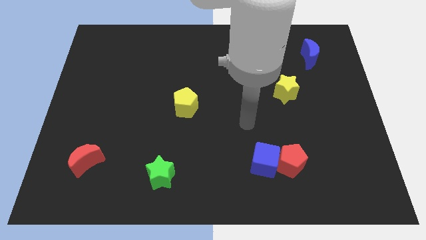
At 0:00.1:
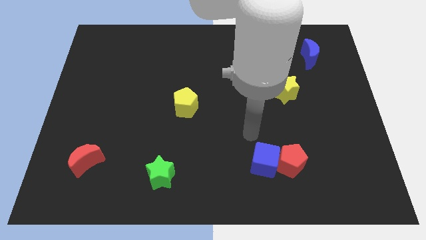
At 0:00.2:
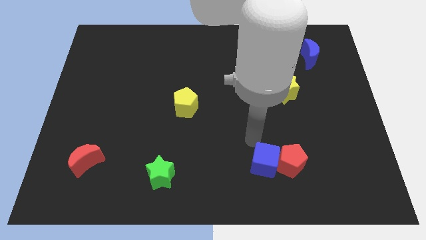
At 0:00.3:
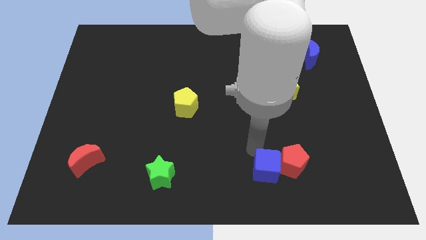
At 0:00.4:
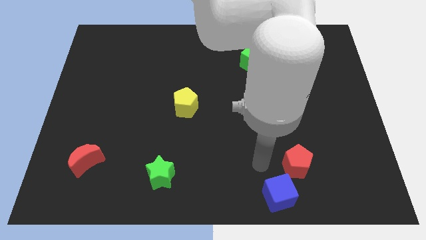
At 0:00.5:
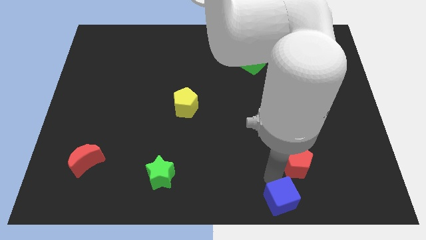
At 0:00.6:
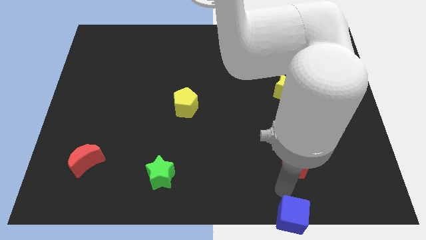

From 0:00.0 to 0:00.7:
pull the red pentagon apart from the blue cube

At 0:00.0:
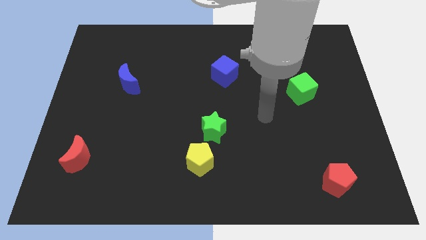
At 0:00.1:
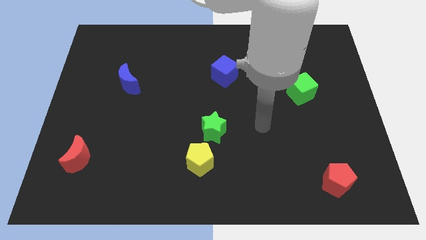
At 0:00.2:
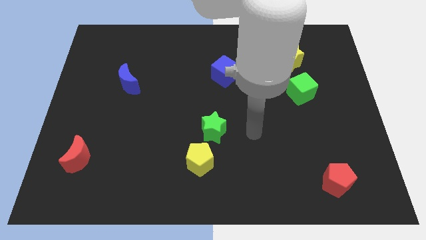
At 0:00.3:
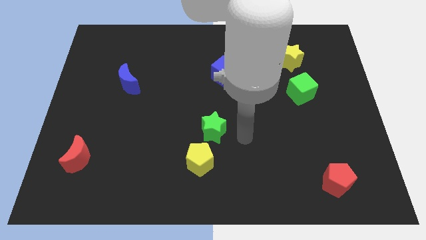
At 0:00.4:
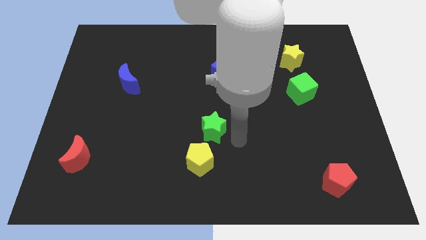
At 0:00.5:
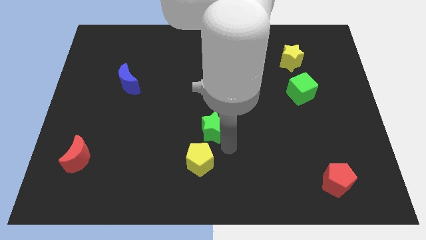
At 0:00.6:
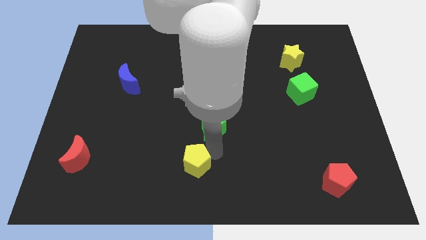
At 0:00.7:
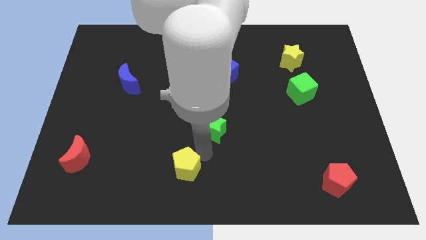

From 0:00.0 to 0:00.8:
separate the green star from the yellow pentagon

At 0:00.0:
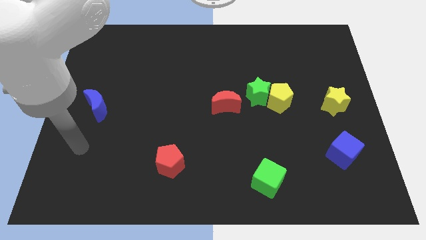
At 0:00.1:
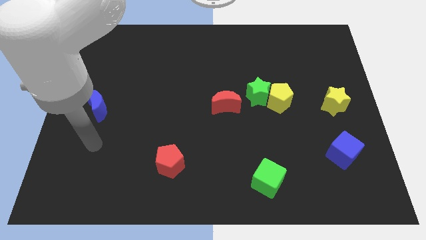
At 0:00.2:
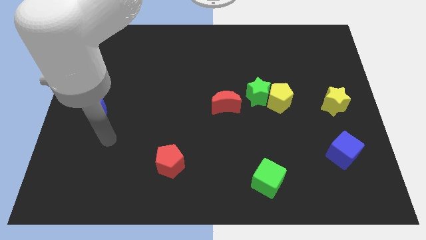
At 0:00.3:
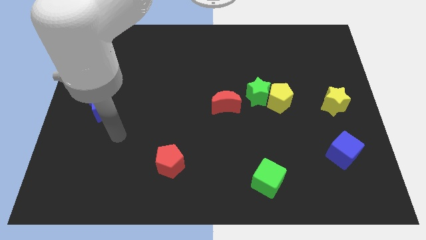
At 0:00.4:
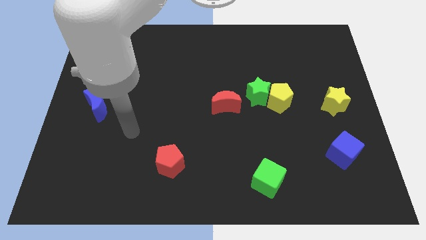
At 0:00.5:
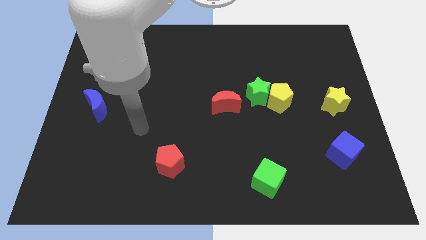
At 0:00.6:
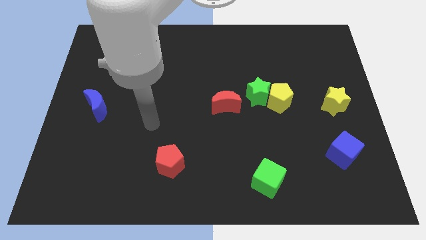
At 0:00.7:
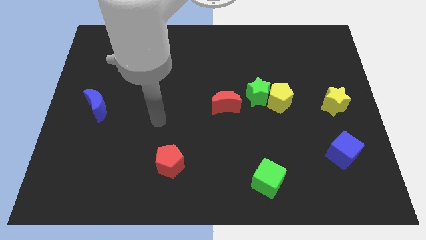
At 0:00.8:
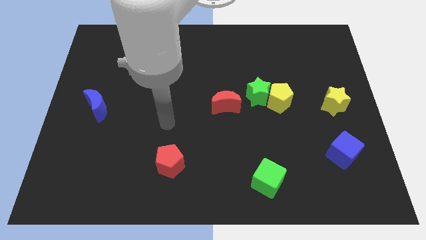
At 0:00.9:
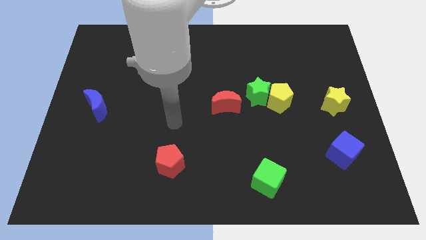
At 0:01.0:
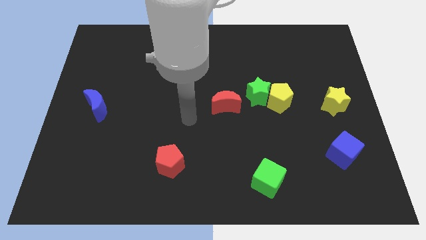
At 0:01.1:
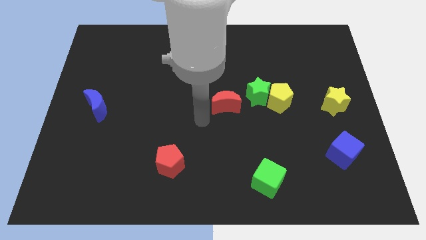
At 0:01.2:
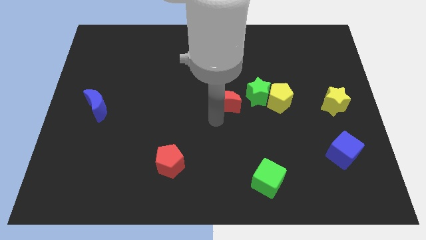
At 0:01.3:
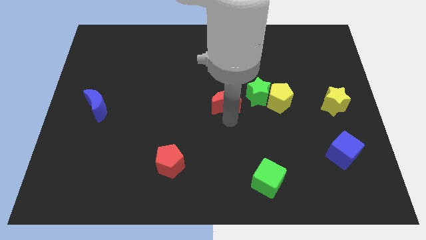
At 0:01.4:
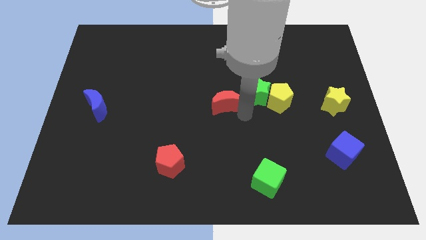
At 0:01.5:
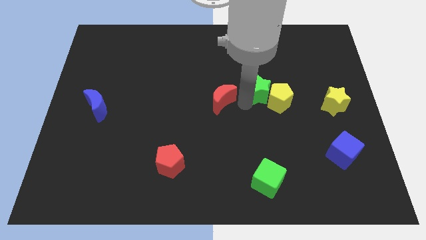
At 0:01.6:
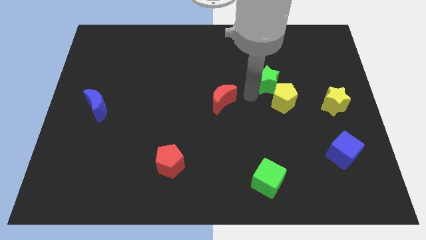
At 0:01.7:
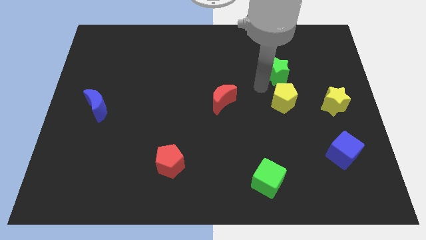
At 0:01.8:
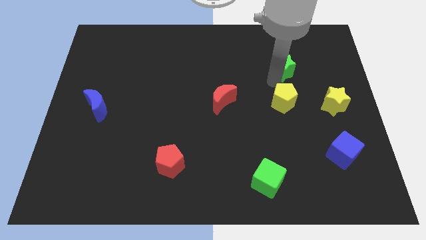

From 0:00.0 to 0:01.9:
separate the yellow pentagon from the green star

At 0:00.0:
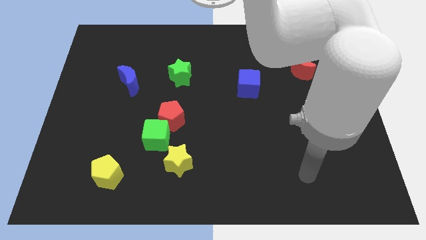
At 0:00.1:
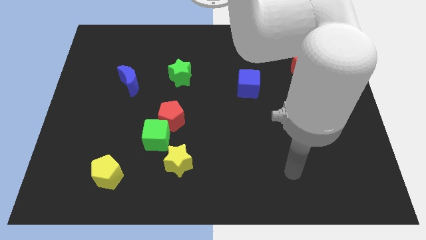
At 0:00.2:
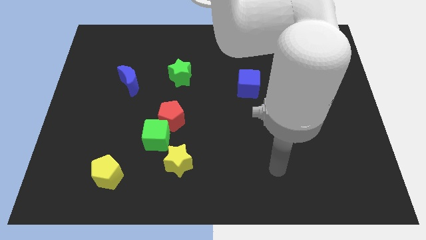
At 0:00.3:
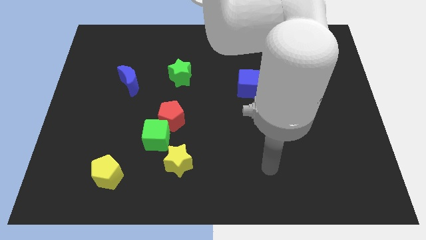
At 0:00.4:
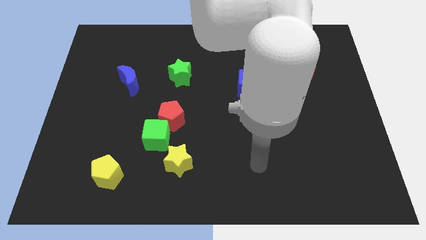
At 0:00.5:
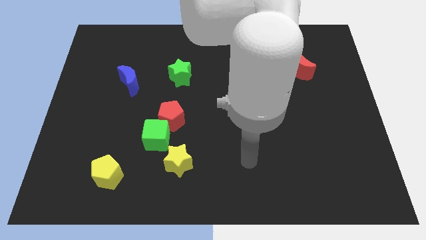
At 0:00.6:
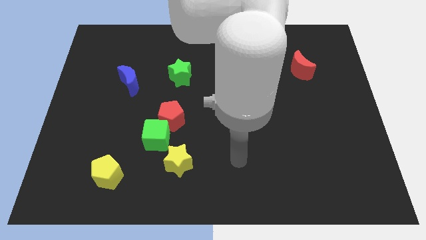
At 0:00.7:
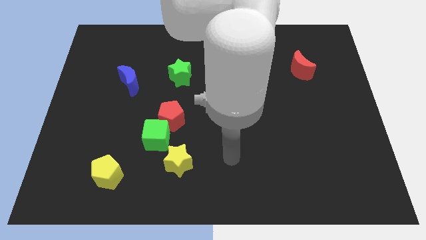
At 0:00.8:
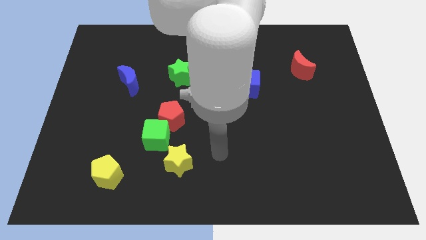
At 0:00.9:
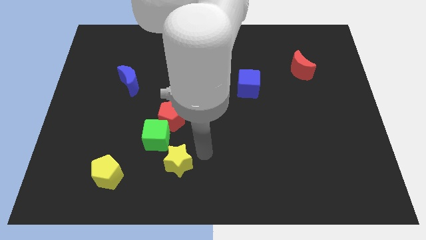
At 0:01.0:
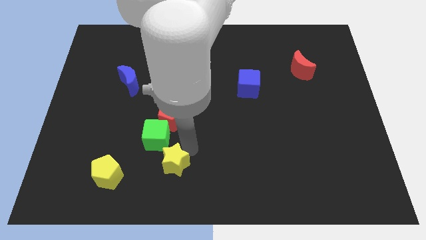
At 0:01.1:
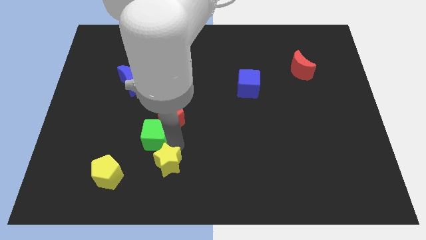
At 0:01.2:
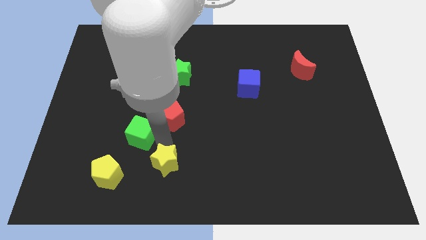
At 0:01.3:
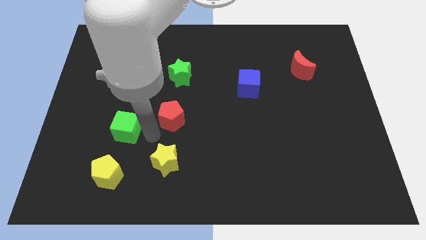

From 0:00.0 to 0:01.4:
separate the red pentagon from the green cube

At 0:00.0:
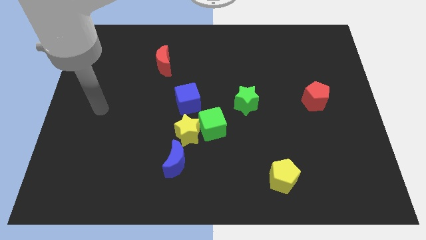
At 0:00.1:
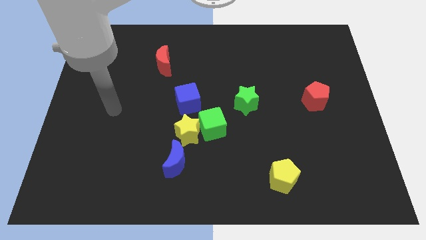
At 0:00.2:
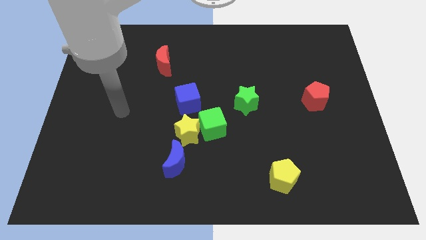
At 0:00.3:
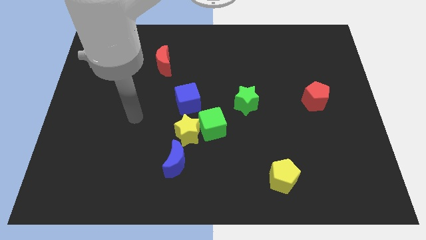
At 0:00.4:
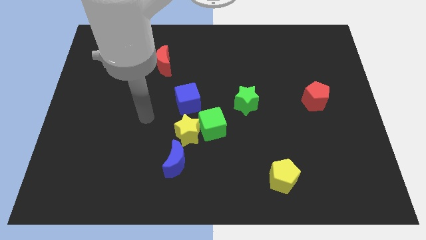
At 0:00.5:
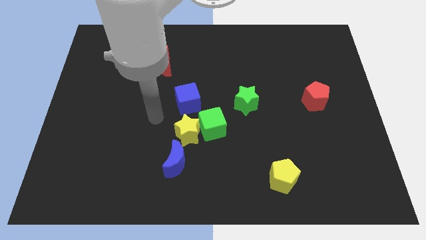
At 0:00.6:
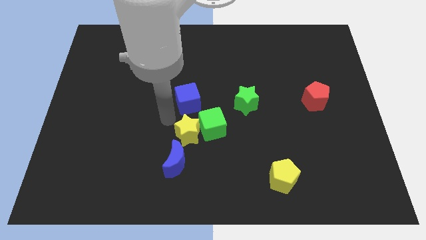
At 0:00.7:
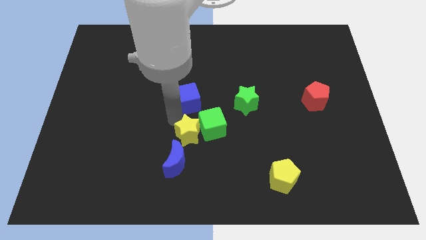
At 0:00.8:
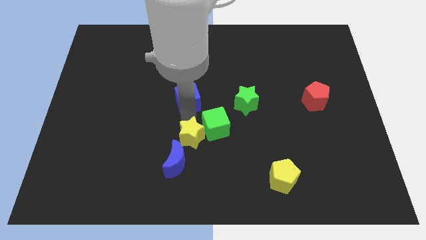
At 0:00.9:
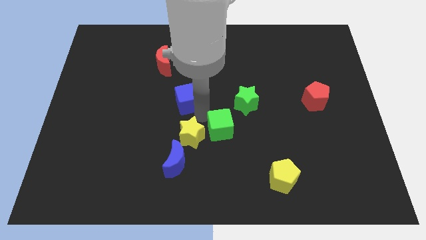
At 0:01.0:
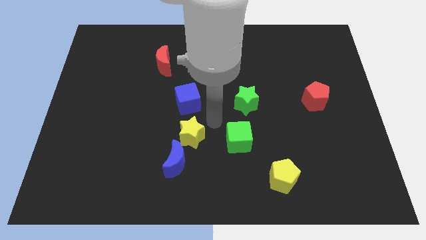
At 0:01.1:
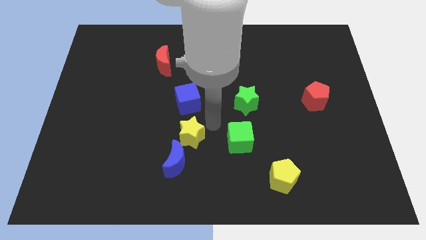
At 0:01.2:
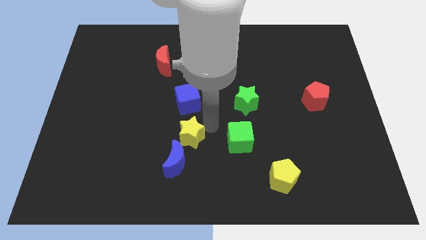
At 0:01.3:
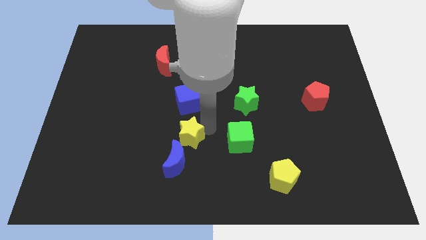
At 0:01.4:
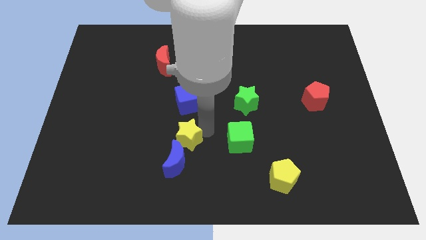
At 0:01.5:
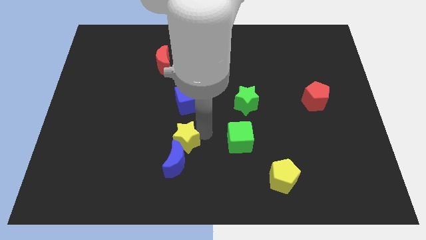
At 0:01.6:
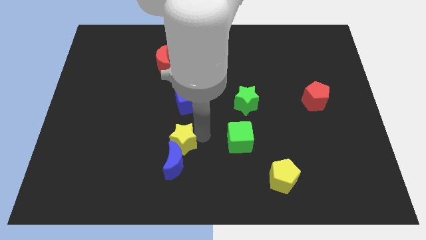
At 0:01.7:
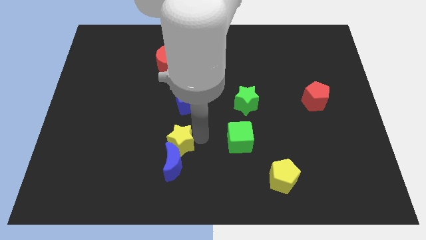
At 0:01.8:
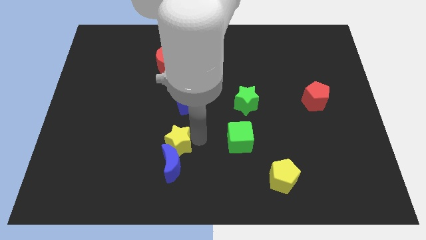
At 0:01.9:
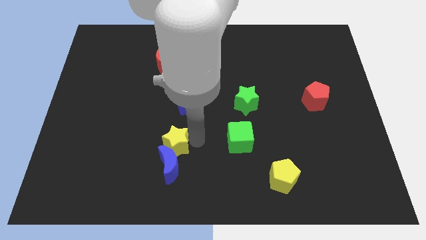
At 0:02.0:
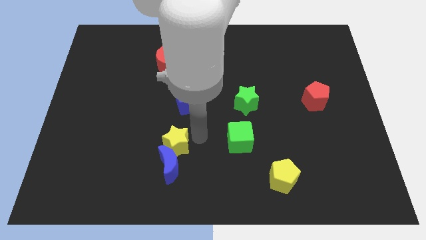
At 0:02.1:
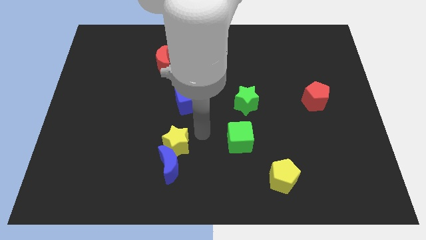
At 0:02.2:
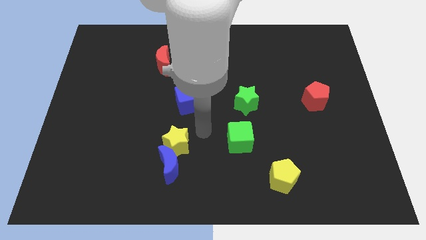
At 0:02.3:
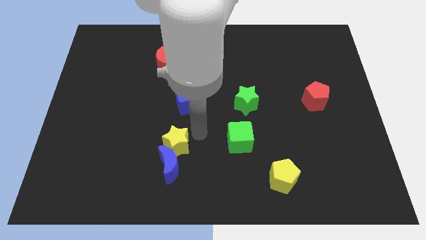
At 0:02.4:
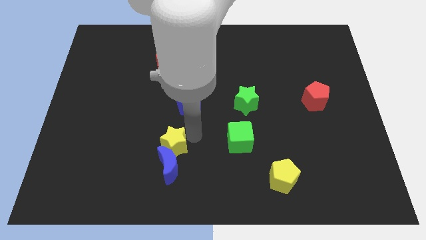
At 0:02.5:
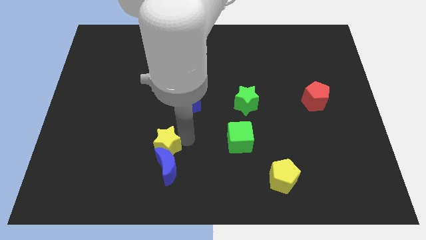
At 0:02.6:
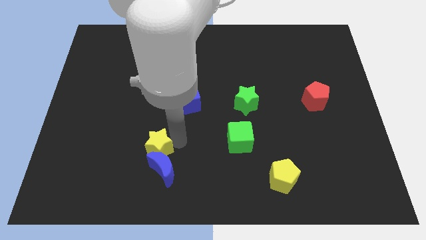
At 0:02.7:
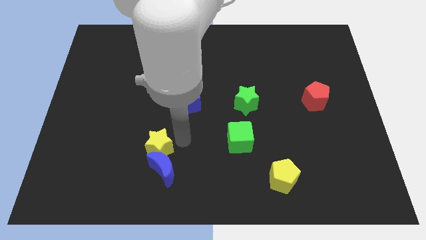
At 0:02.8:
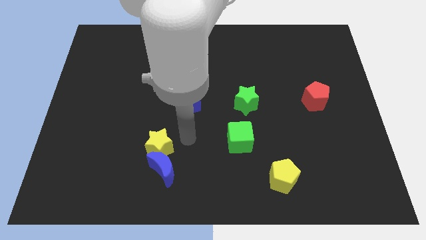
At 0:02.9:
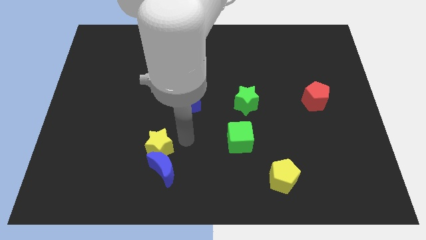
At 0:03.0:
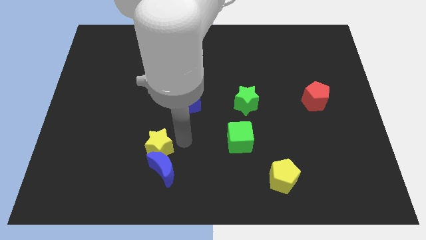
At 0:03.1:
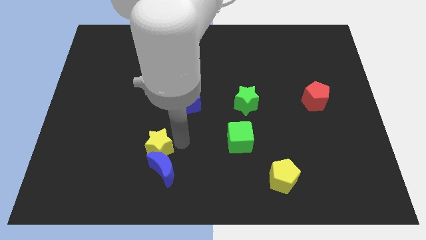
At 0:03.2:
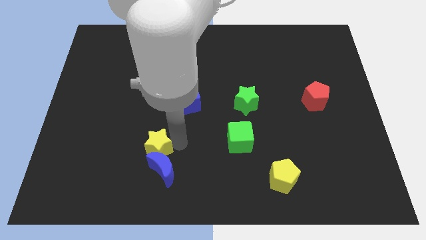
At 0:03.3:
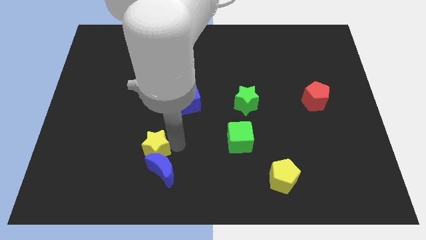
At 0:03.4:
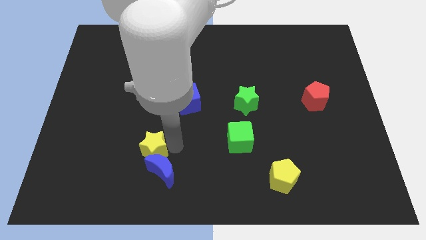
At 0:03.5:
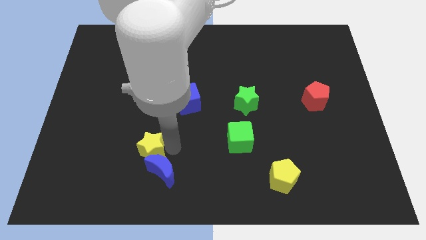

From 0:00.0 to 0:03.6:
pull the yellow star apart from the green cube, blue moon, and blue cube

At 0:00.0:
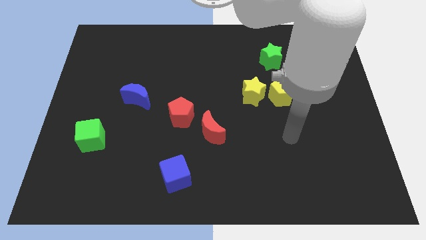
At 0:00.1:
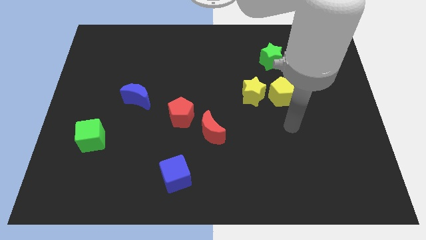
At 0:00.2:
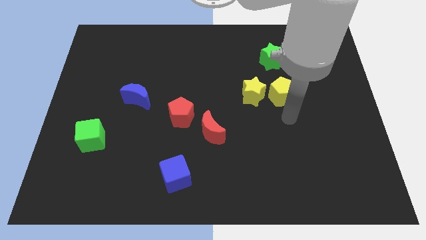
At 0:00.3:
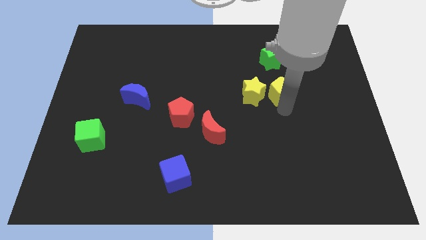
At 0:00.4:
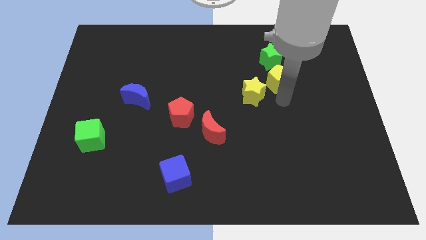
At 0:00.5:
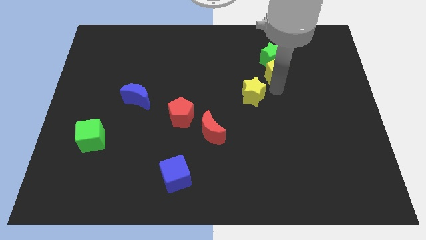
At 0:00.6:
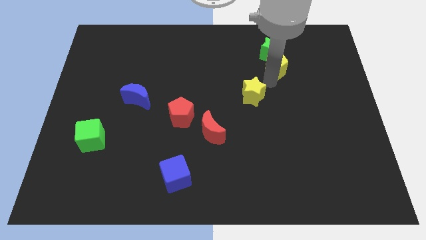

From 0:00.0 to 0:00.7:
pull the yellow star apart from the yellow pentagon
